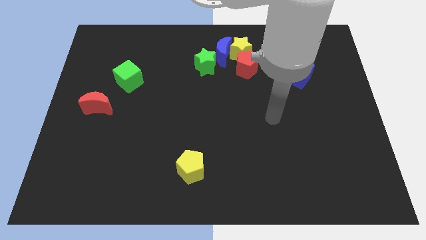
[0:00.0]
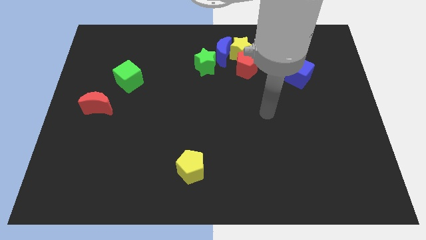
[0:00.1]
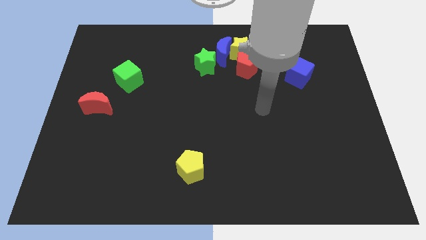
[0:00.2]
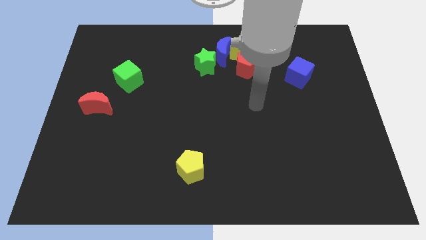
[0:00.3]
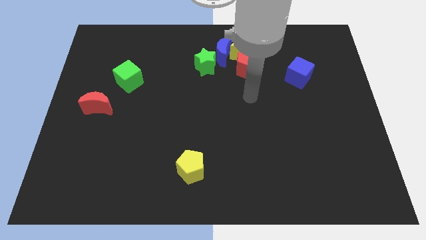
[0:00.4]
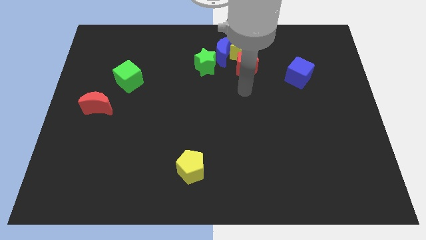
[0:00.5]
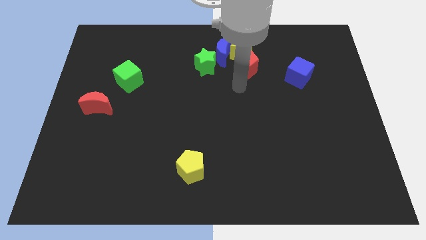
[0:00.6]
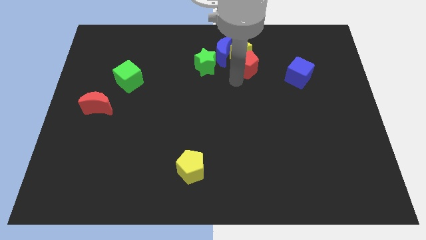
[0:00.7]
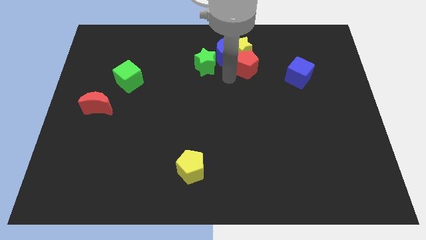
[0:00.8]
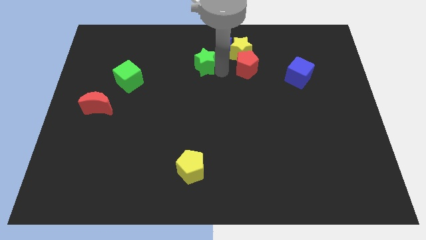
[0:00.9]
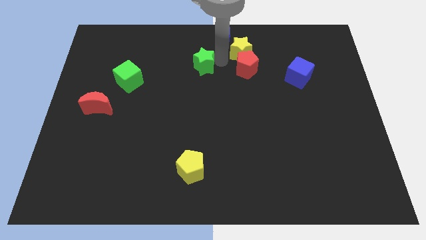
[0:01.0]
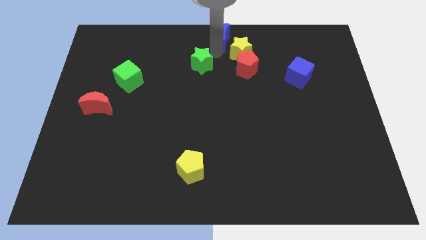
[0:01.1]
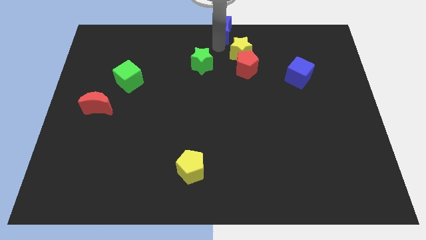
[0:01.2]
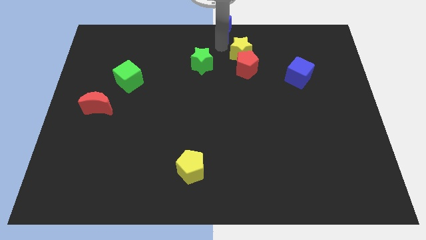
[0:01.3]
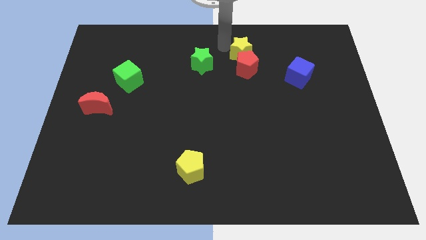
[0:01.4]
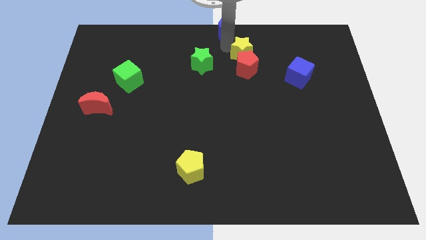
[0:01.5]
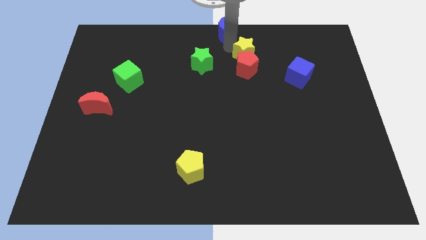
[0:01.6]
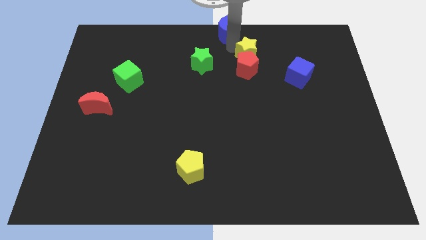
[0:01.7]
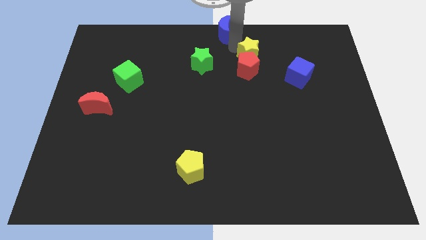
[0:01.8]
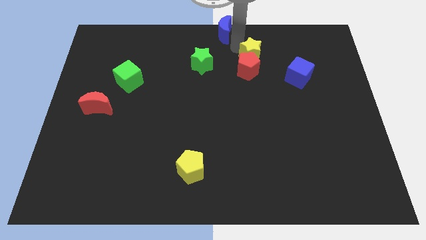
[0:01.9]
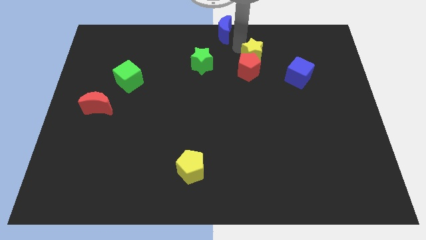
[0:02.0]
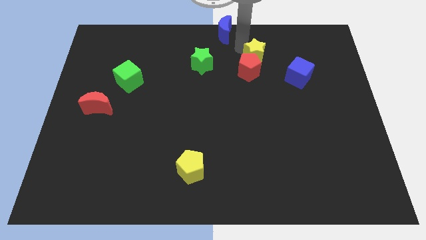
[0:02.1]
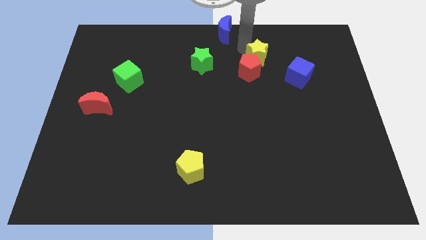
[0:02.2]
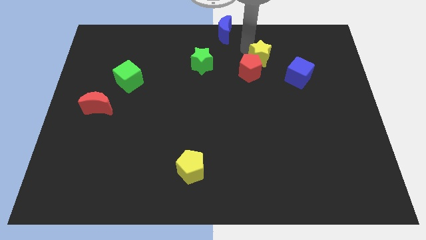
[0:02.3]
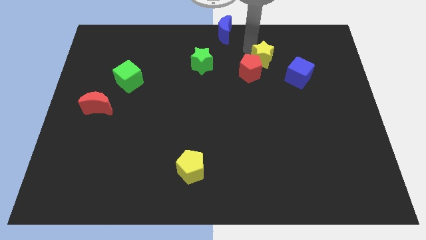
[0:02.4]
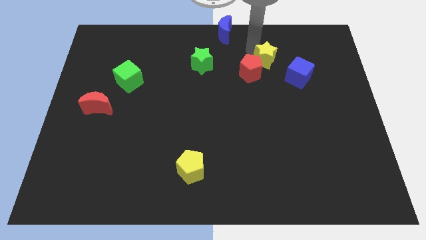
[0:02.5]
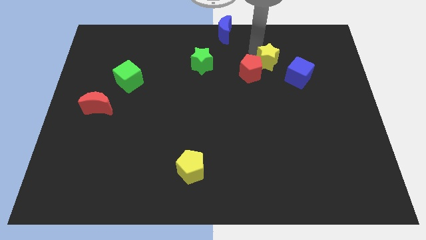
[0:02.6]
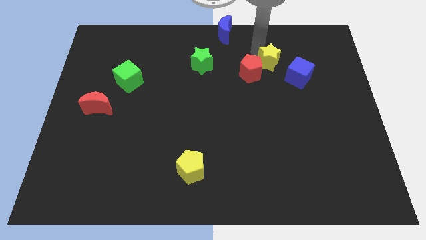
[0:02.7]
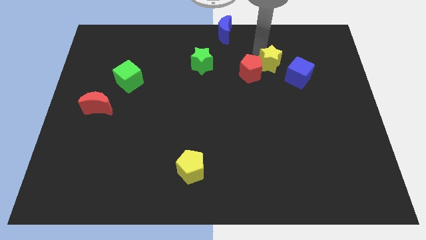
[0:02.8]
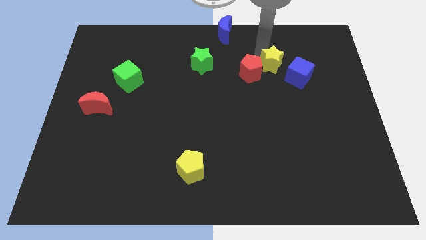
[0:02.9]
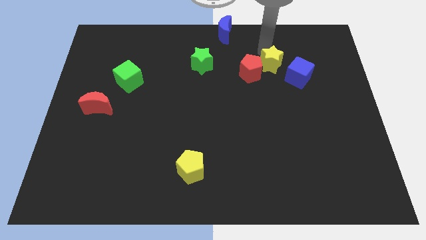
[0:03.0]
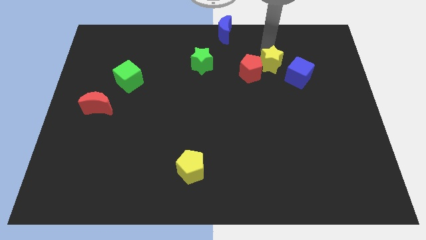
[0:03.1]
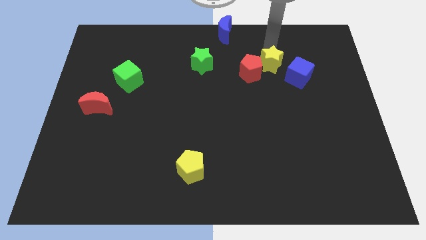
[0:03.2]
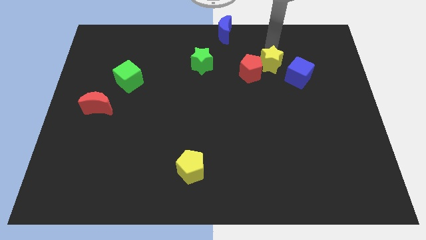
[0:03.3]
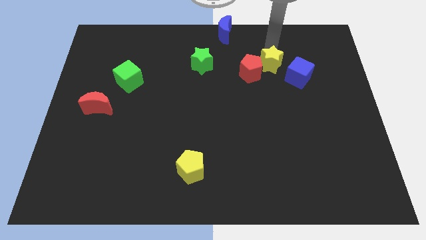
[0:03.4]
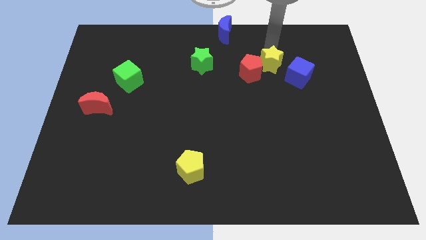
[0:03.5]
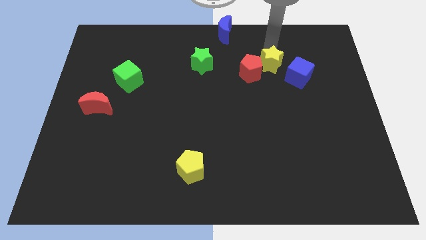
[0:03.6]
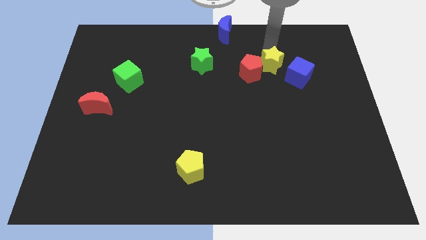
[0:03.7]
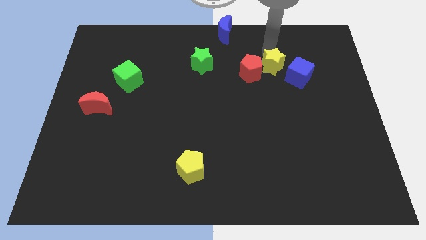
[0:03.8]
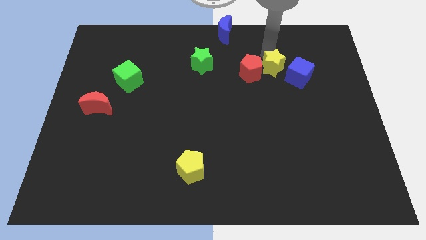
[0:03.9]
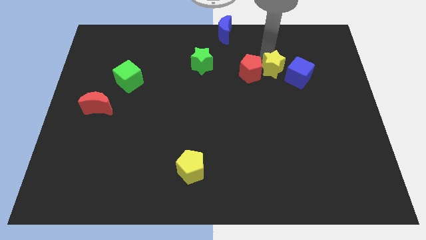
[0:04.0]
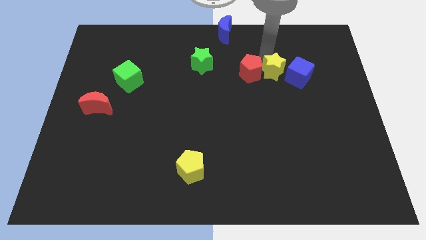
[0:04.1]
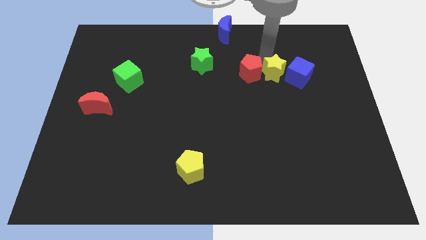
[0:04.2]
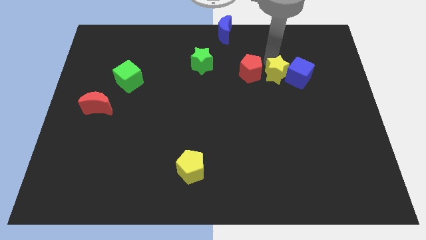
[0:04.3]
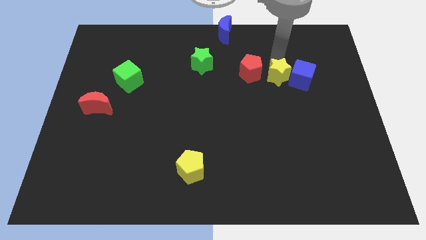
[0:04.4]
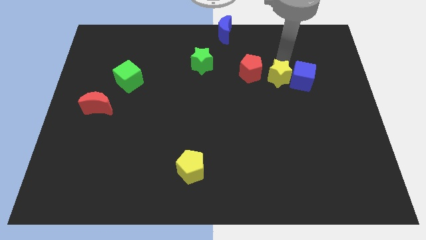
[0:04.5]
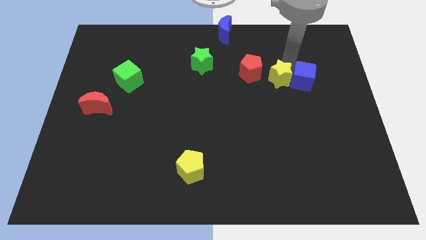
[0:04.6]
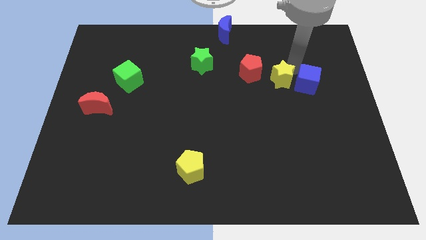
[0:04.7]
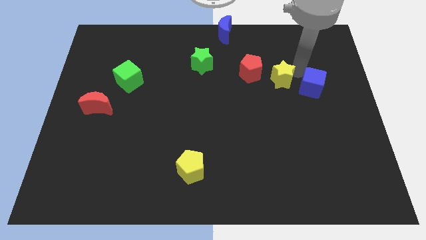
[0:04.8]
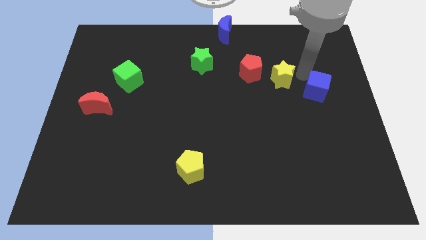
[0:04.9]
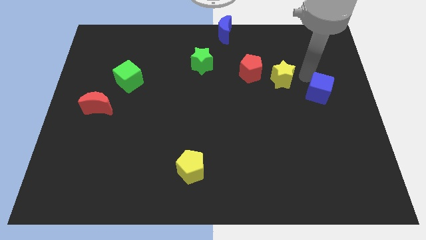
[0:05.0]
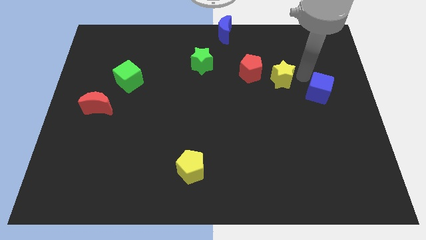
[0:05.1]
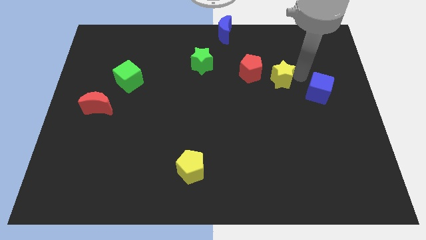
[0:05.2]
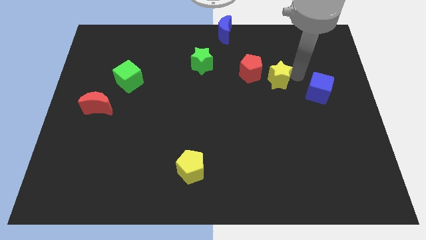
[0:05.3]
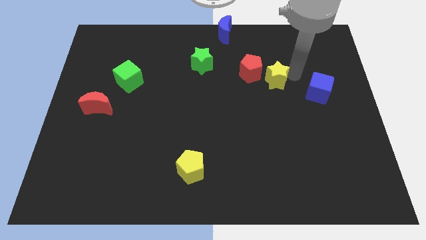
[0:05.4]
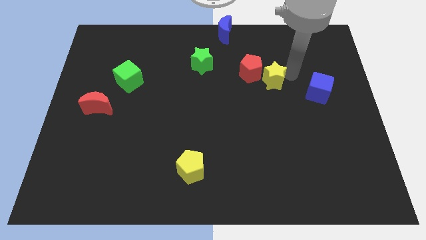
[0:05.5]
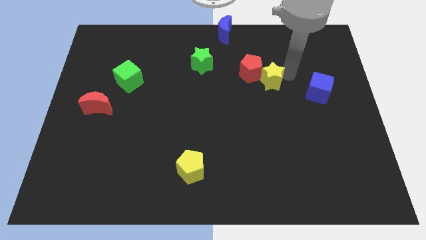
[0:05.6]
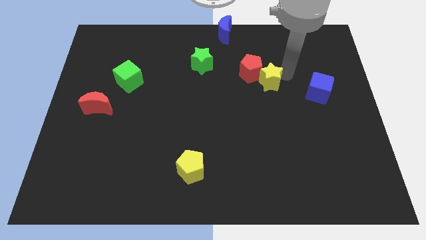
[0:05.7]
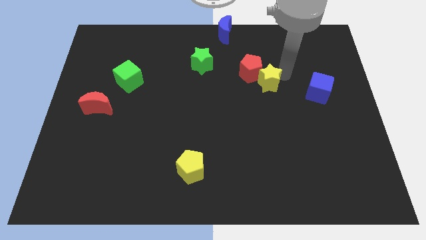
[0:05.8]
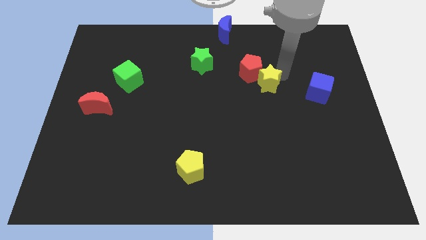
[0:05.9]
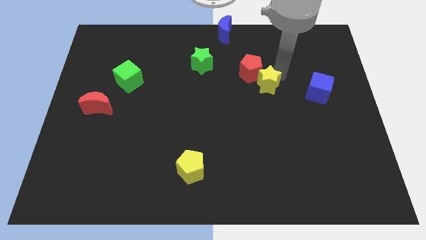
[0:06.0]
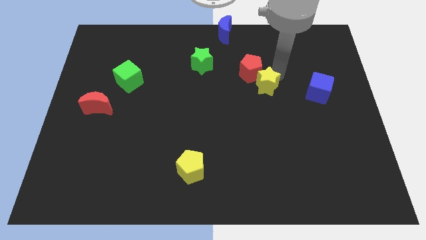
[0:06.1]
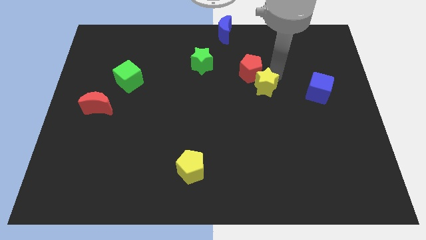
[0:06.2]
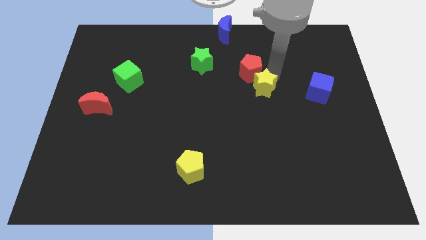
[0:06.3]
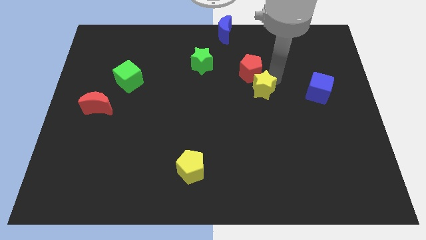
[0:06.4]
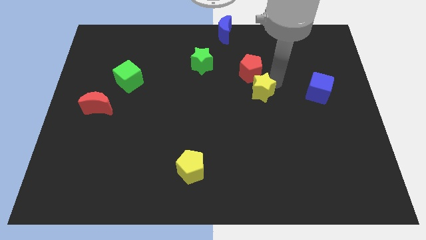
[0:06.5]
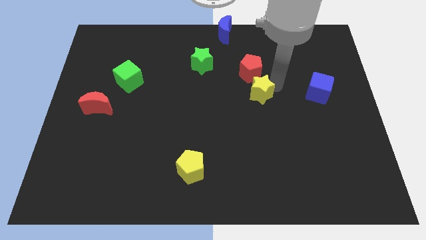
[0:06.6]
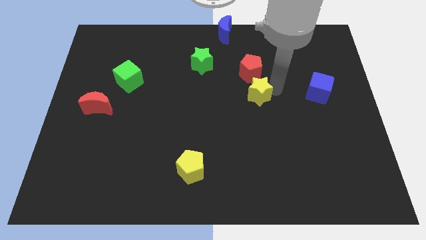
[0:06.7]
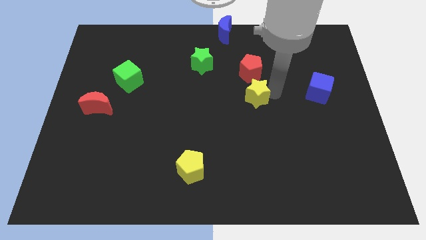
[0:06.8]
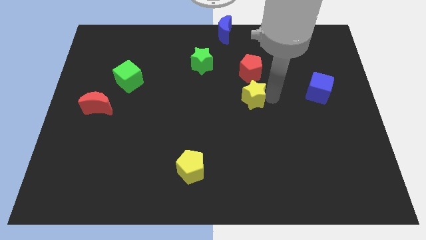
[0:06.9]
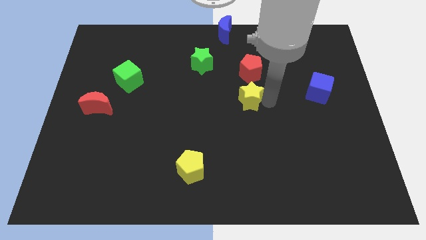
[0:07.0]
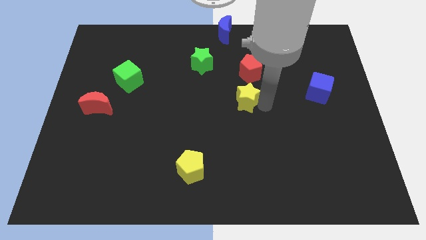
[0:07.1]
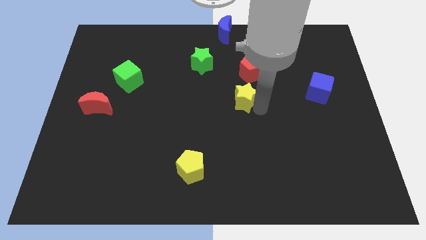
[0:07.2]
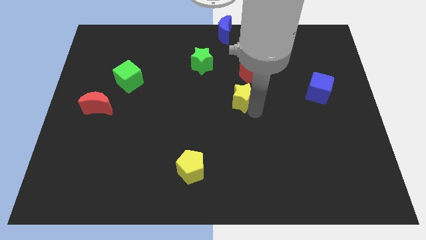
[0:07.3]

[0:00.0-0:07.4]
push the yellow star to the bottom left of the red pentagon
